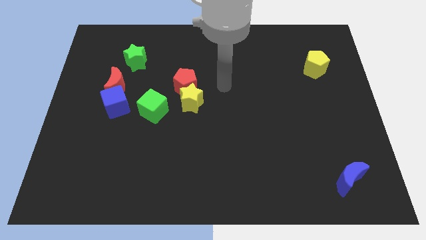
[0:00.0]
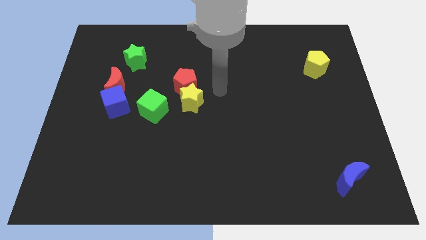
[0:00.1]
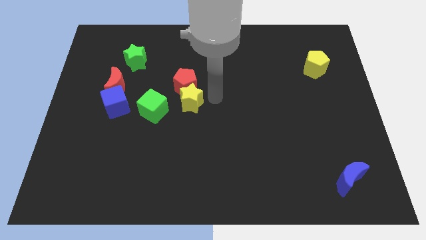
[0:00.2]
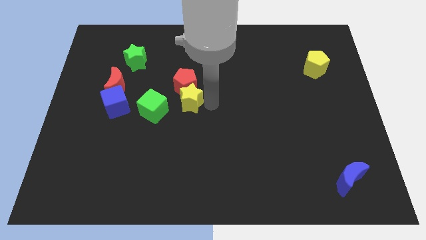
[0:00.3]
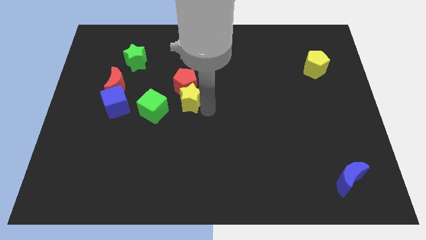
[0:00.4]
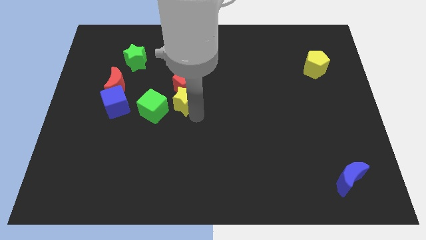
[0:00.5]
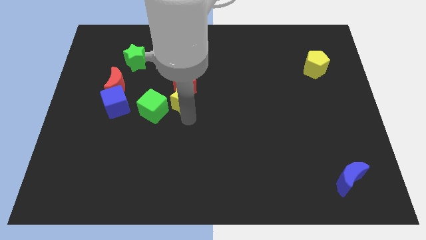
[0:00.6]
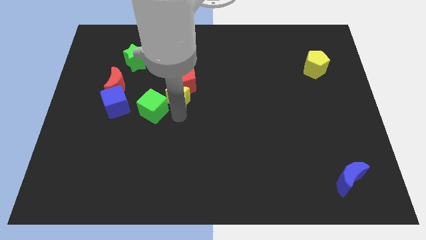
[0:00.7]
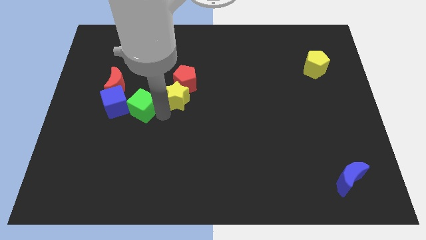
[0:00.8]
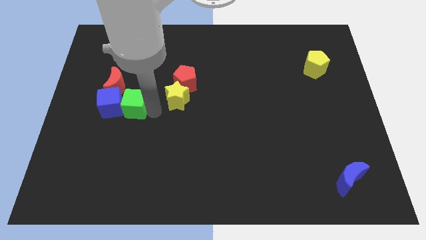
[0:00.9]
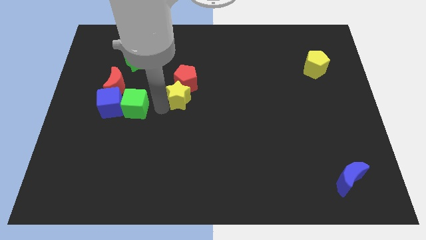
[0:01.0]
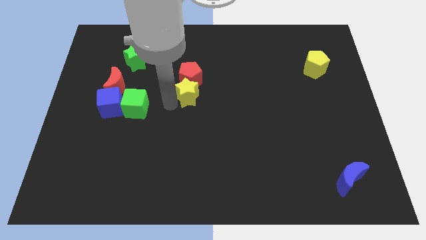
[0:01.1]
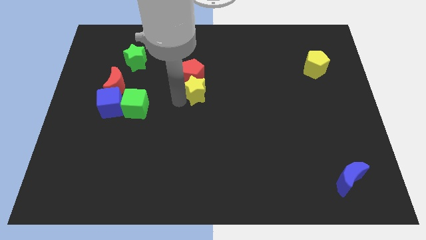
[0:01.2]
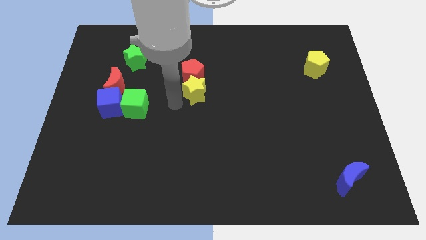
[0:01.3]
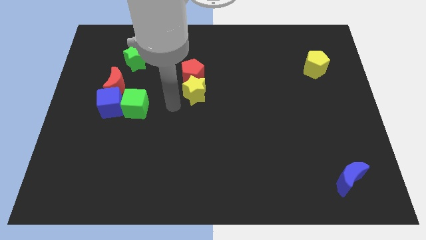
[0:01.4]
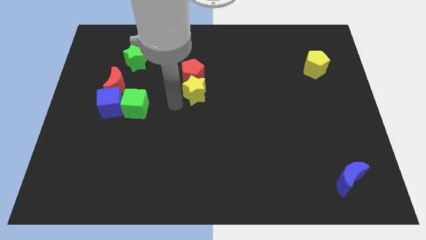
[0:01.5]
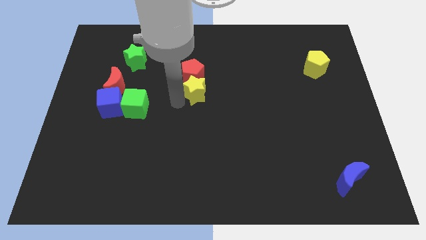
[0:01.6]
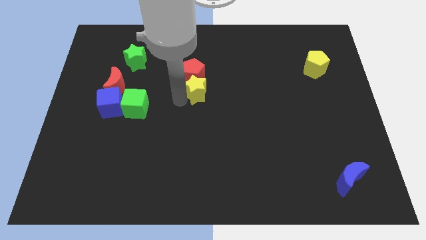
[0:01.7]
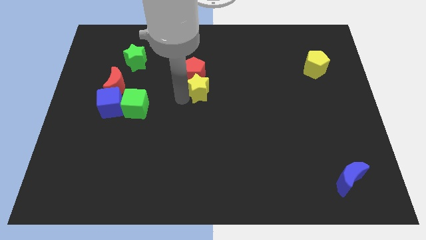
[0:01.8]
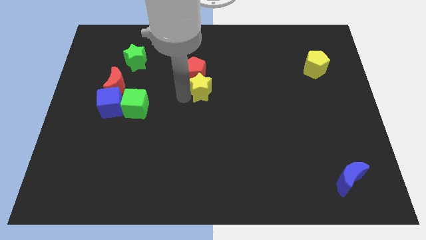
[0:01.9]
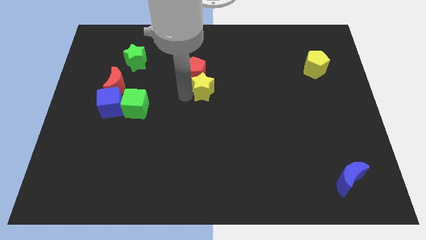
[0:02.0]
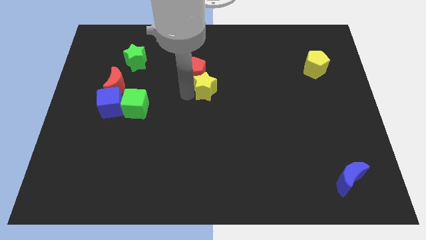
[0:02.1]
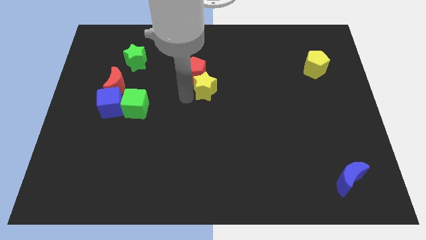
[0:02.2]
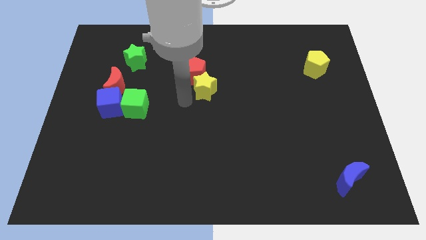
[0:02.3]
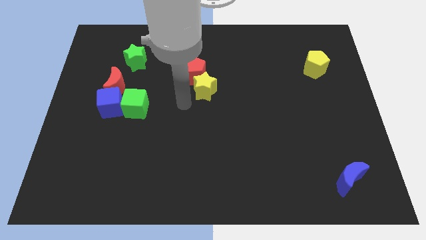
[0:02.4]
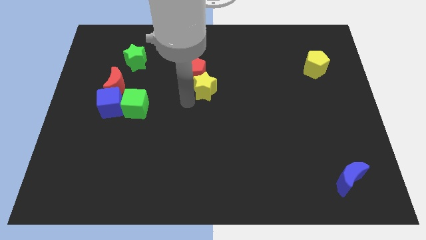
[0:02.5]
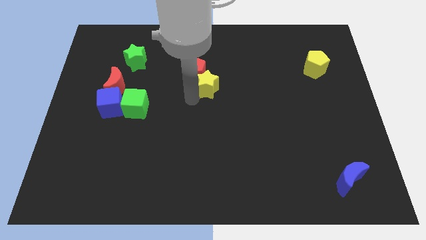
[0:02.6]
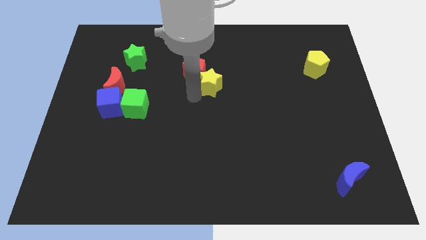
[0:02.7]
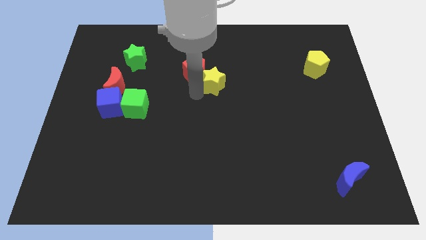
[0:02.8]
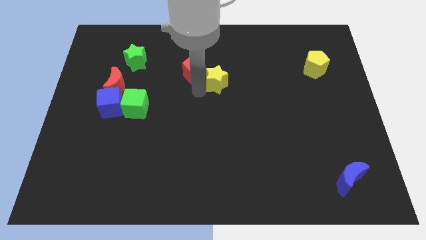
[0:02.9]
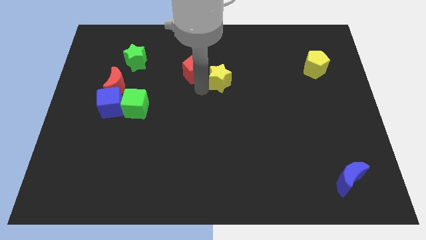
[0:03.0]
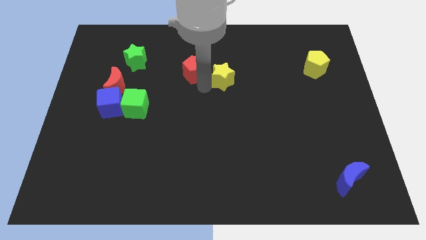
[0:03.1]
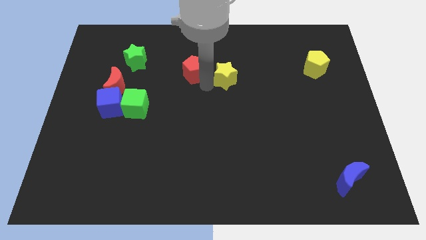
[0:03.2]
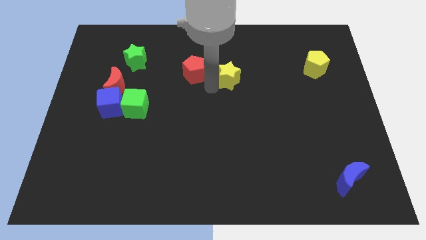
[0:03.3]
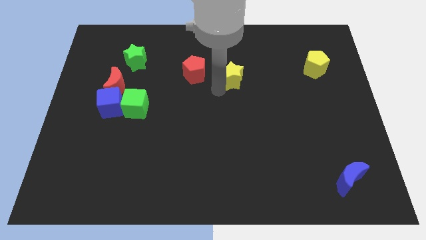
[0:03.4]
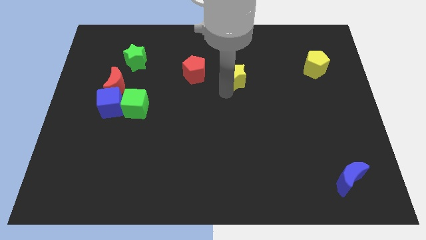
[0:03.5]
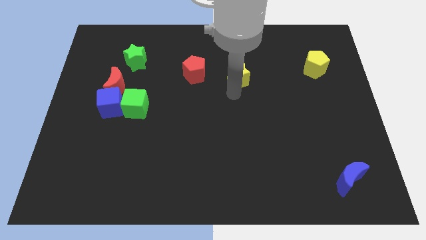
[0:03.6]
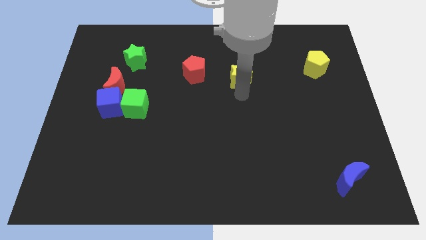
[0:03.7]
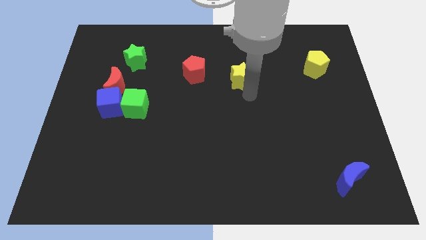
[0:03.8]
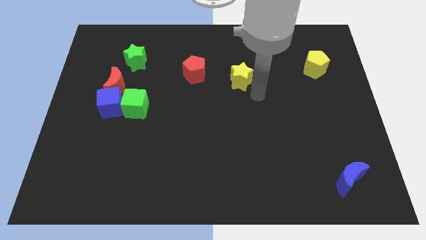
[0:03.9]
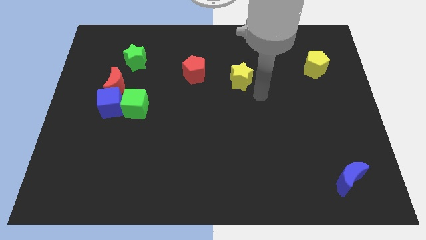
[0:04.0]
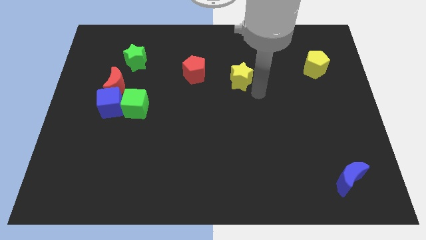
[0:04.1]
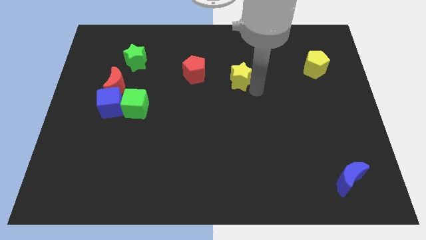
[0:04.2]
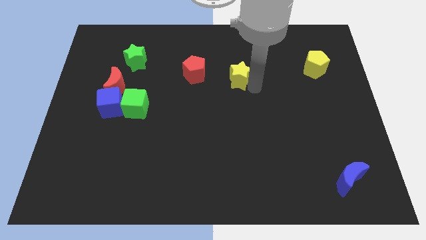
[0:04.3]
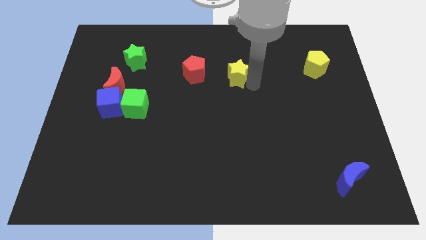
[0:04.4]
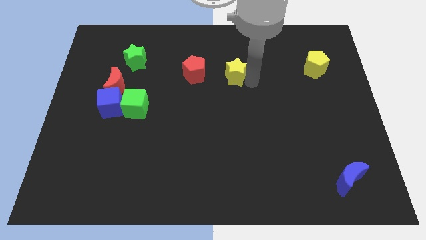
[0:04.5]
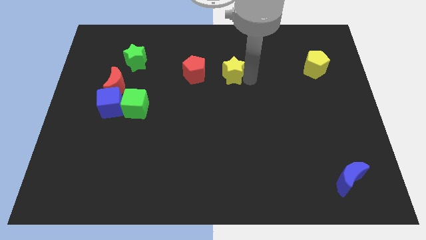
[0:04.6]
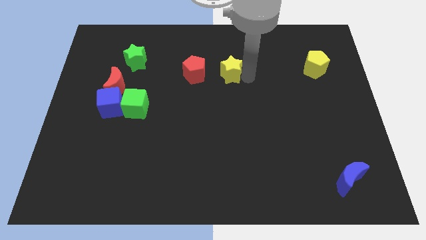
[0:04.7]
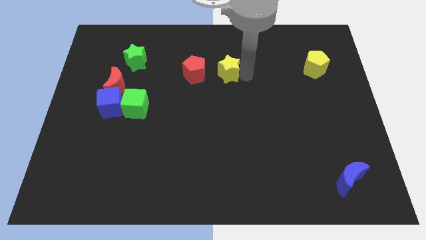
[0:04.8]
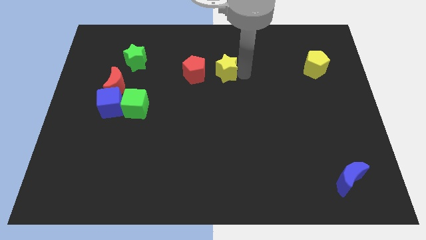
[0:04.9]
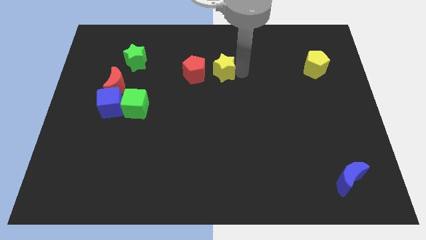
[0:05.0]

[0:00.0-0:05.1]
push the yellow star to the top right of the red pentagon

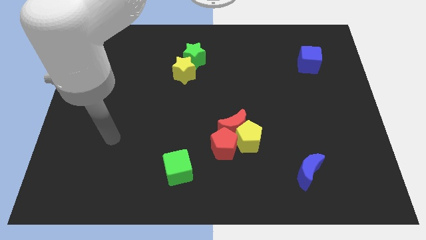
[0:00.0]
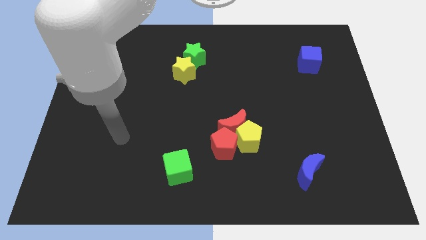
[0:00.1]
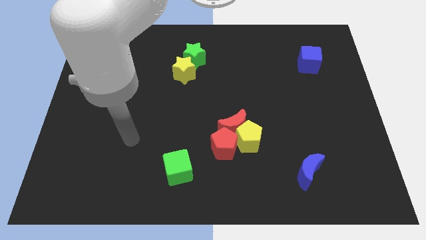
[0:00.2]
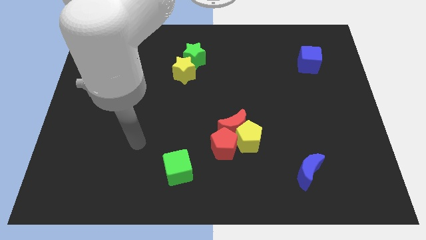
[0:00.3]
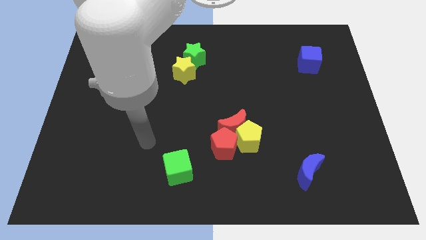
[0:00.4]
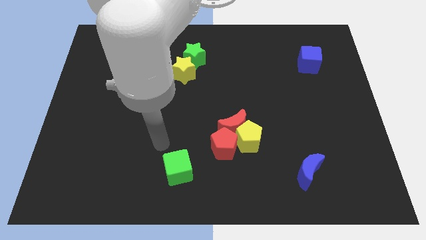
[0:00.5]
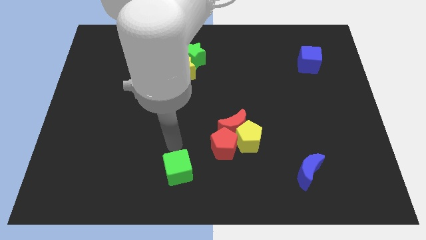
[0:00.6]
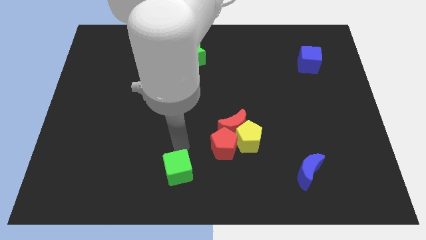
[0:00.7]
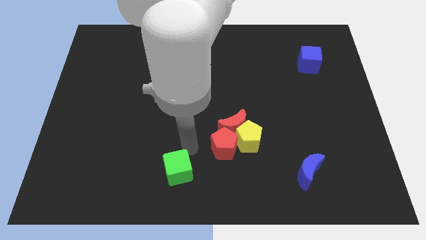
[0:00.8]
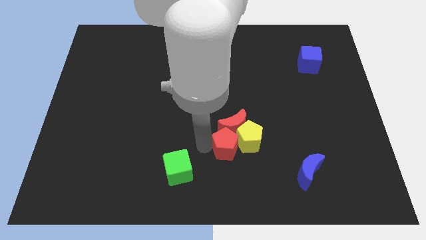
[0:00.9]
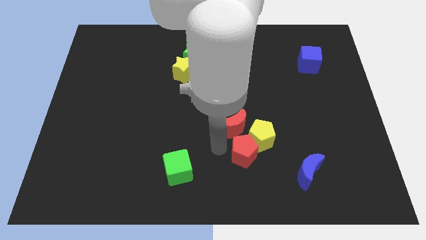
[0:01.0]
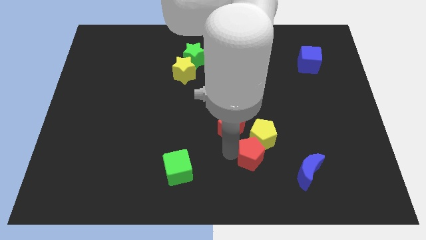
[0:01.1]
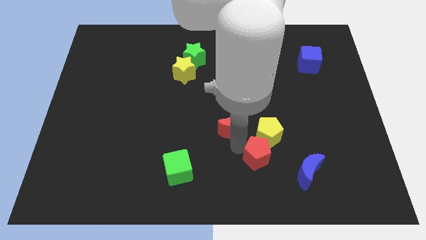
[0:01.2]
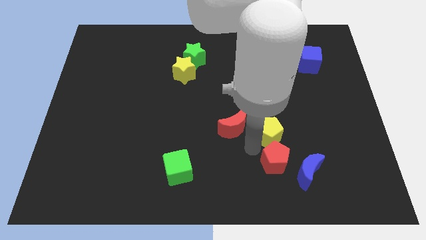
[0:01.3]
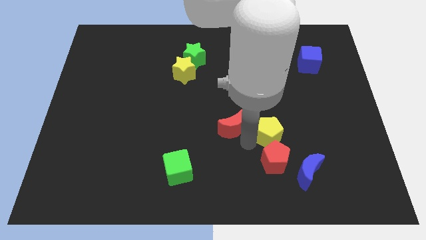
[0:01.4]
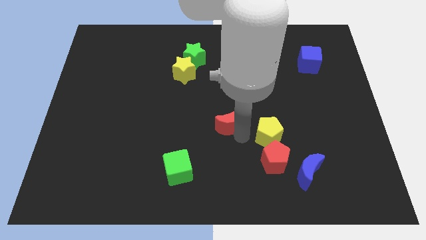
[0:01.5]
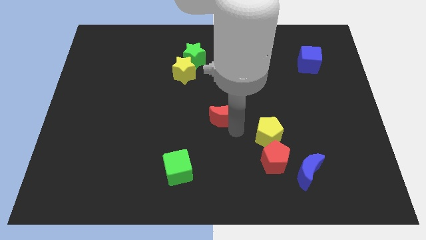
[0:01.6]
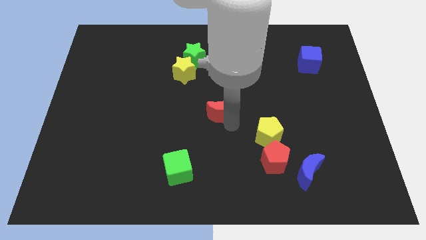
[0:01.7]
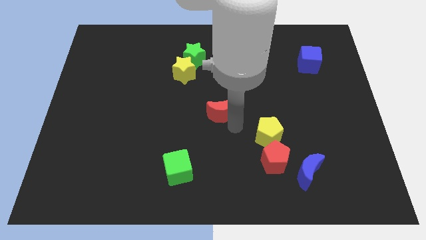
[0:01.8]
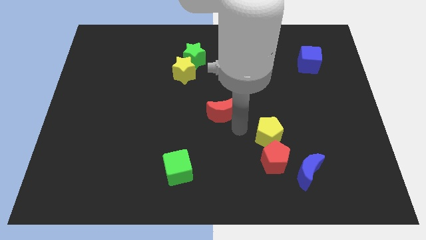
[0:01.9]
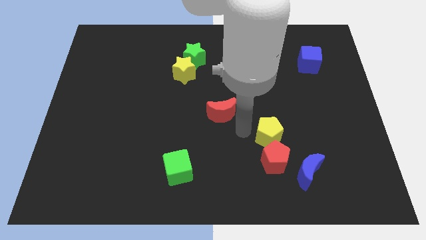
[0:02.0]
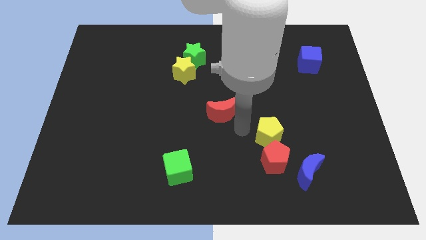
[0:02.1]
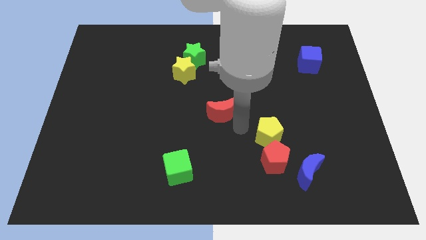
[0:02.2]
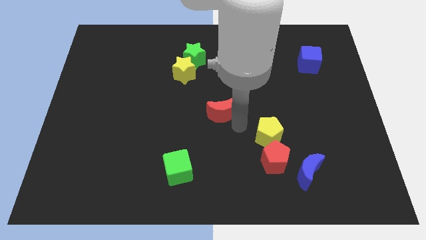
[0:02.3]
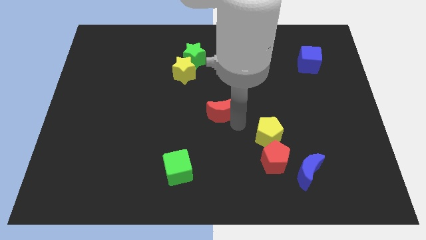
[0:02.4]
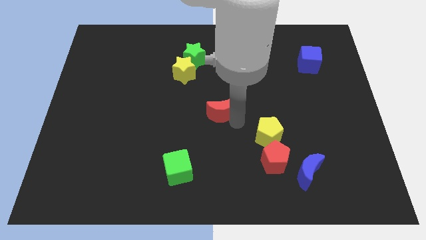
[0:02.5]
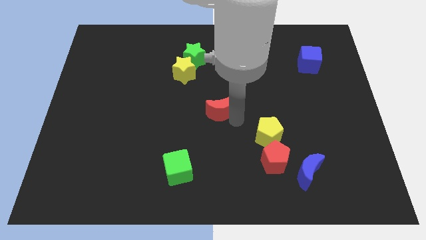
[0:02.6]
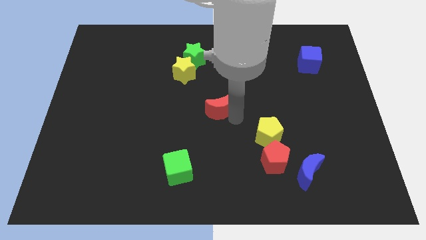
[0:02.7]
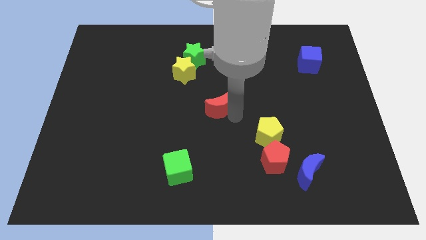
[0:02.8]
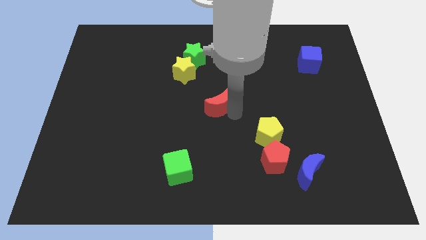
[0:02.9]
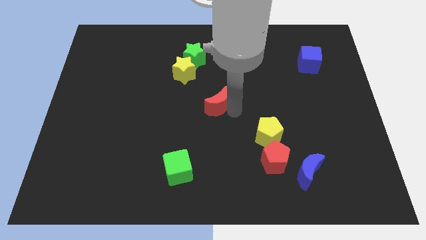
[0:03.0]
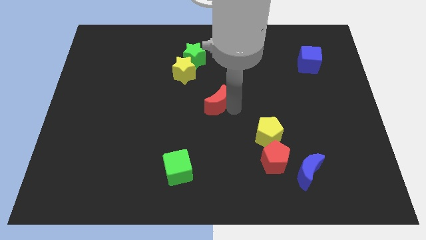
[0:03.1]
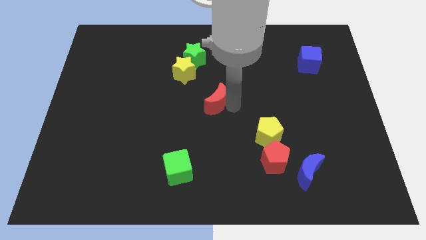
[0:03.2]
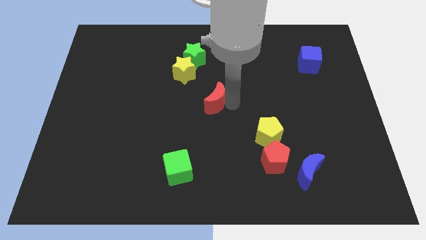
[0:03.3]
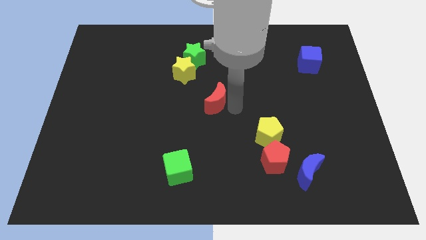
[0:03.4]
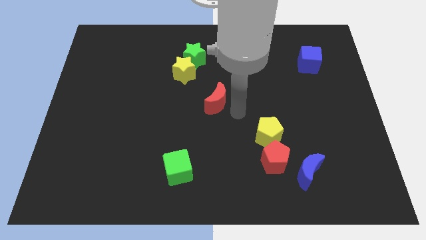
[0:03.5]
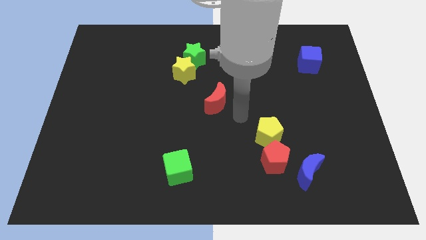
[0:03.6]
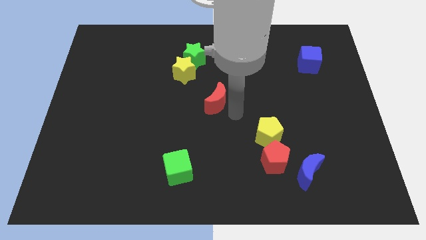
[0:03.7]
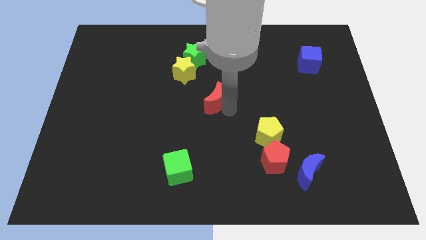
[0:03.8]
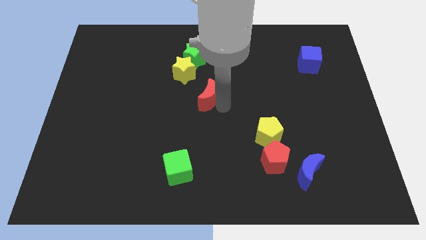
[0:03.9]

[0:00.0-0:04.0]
push the red moon below the green star
